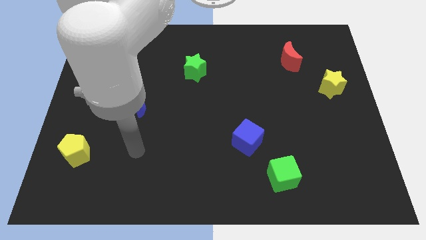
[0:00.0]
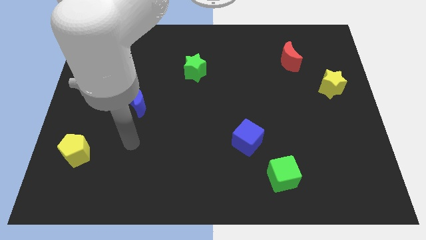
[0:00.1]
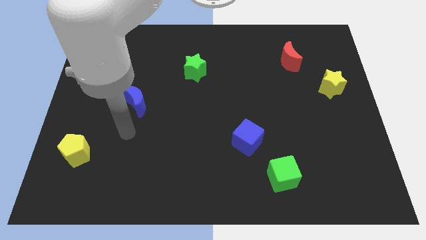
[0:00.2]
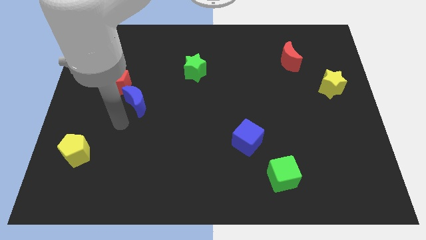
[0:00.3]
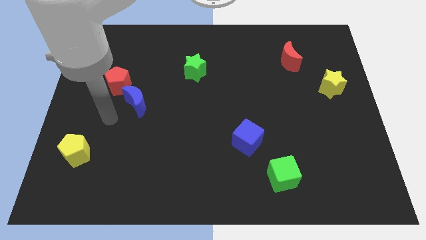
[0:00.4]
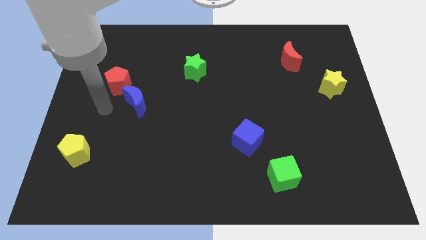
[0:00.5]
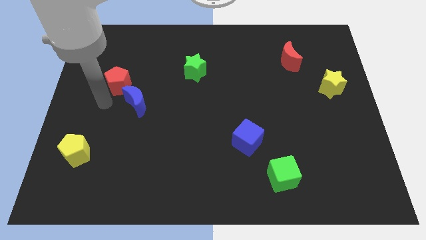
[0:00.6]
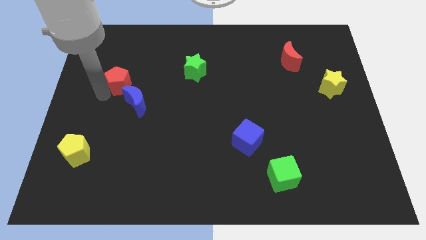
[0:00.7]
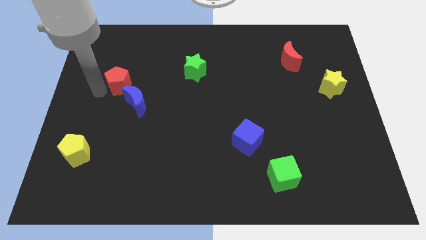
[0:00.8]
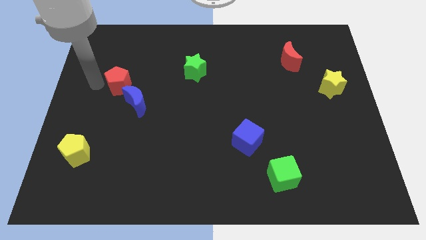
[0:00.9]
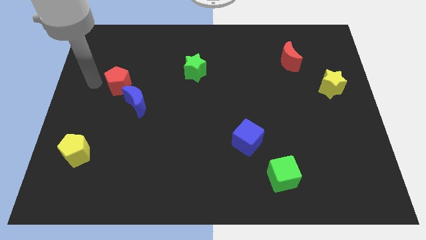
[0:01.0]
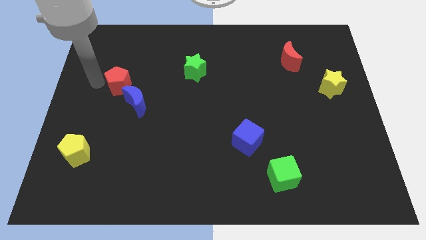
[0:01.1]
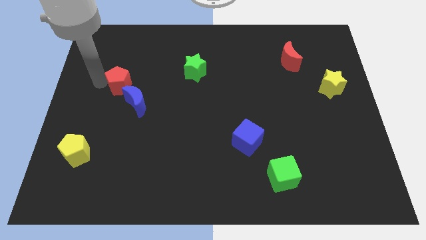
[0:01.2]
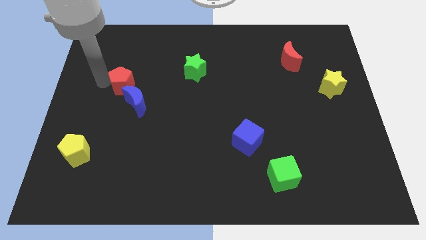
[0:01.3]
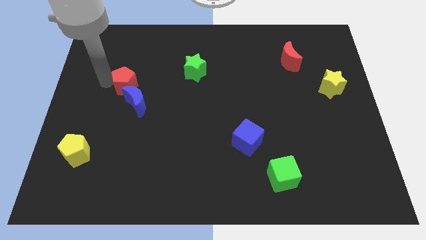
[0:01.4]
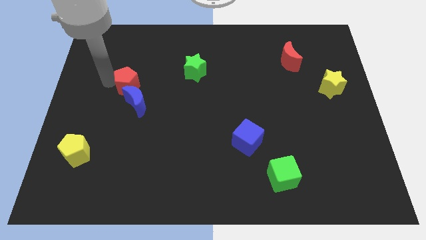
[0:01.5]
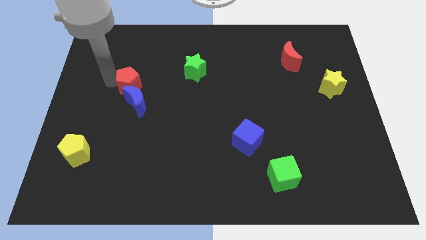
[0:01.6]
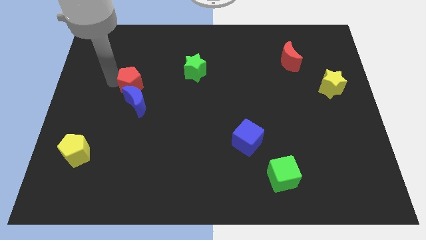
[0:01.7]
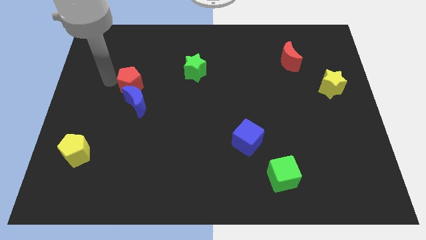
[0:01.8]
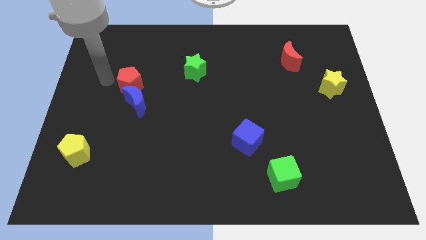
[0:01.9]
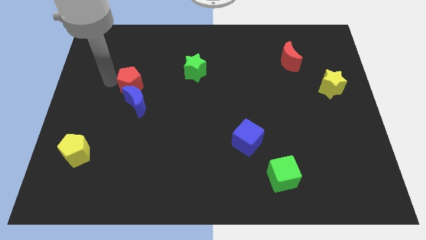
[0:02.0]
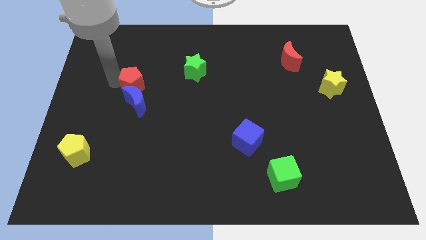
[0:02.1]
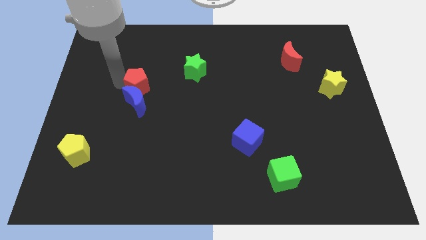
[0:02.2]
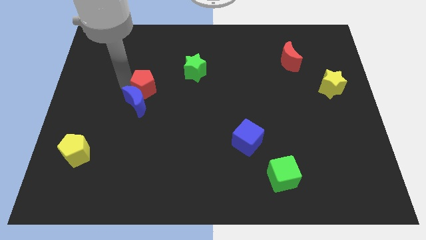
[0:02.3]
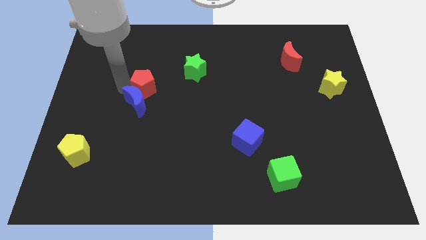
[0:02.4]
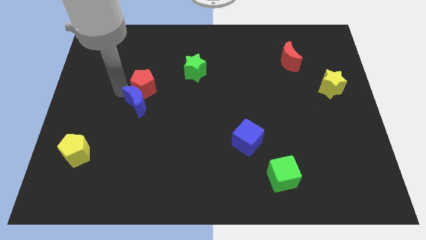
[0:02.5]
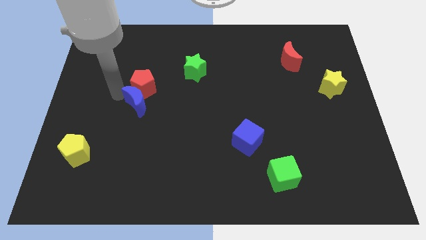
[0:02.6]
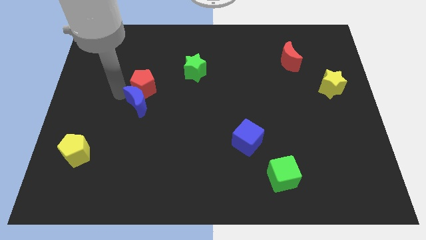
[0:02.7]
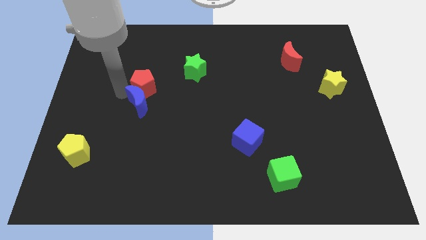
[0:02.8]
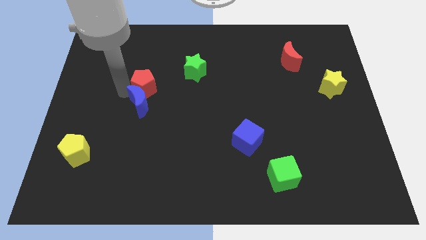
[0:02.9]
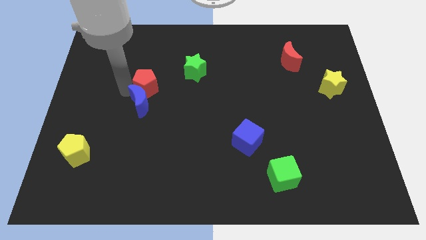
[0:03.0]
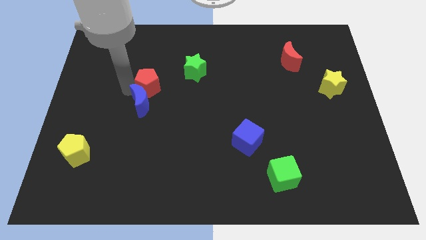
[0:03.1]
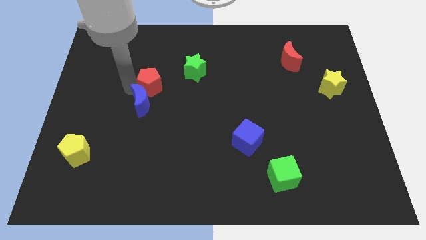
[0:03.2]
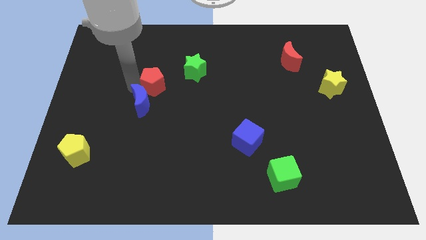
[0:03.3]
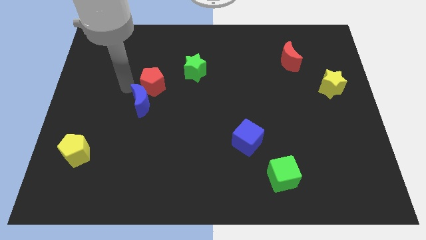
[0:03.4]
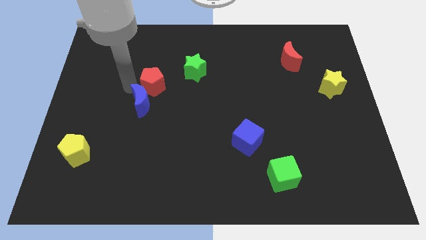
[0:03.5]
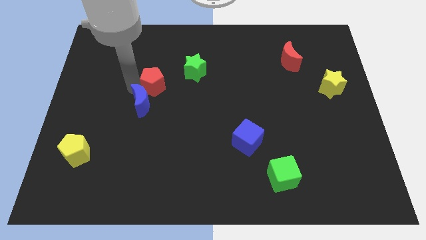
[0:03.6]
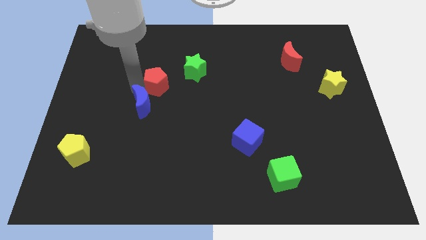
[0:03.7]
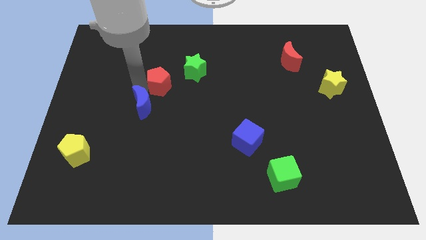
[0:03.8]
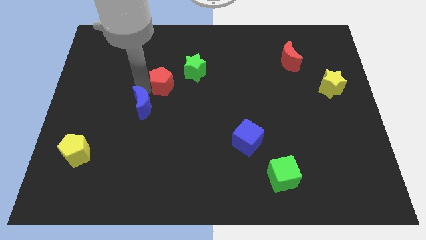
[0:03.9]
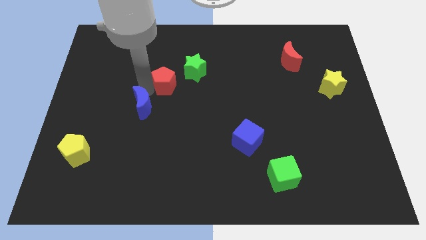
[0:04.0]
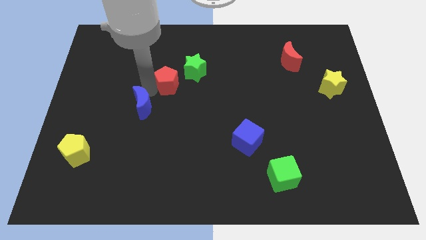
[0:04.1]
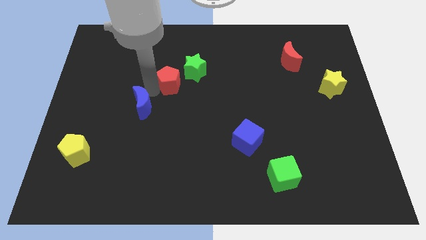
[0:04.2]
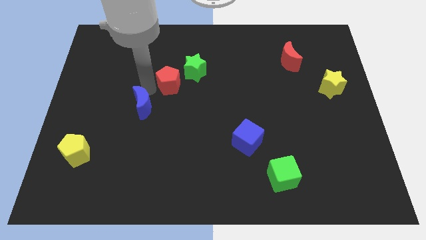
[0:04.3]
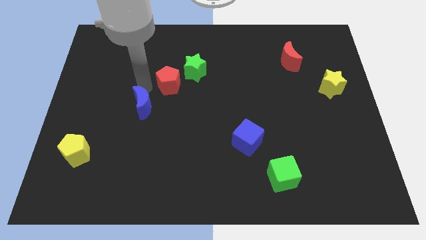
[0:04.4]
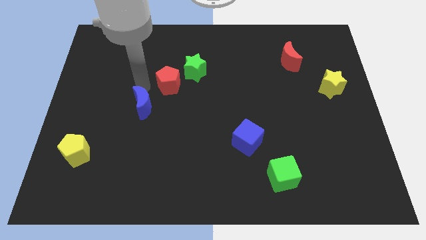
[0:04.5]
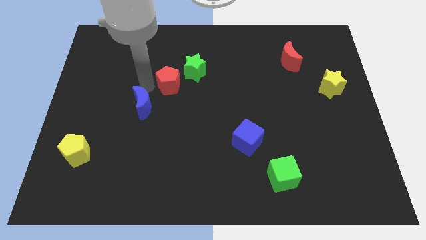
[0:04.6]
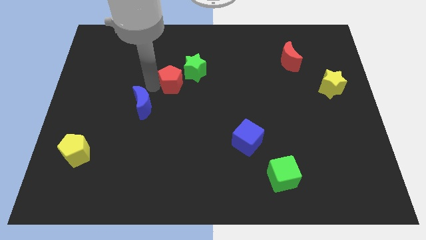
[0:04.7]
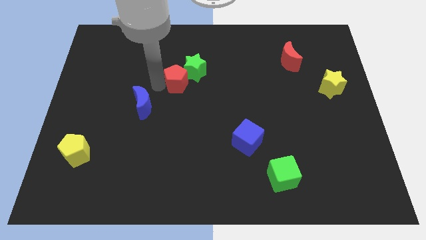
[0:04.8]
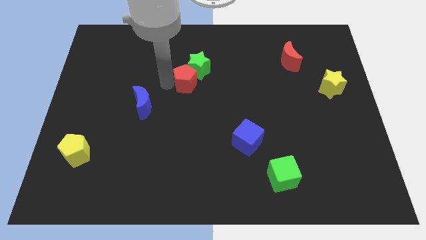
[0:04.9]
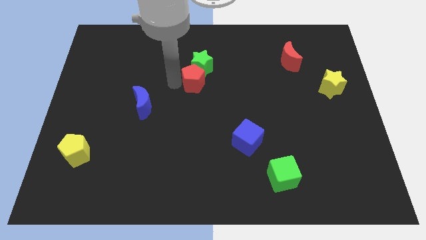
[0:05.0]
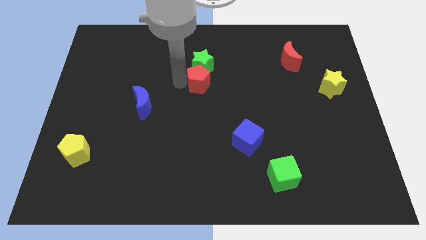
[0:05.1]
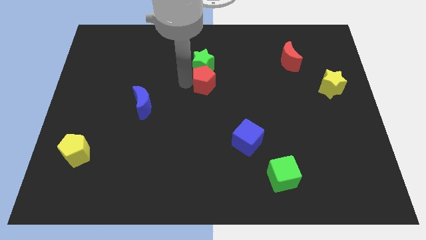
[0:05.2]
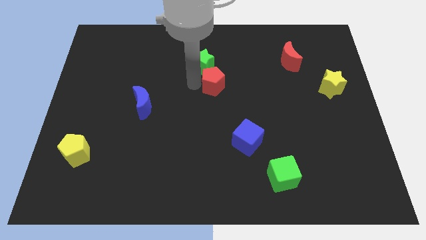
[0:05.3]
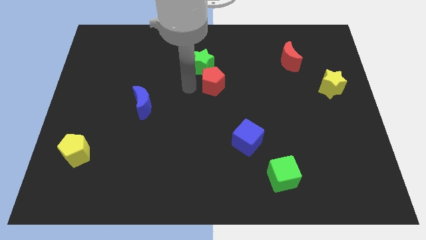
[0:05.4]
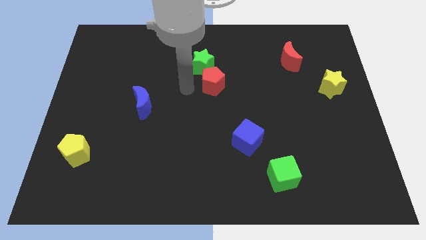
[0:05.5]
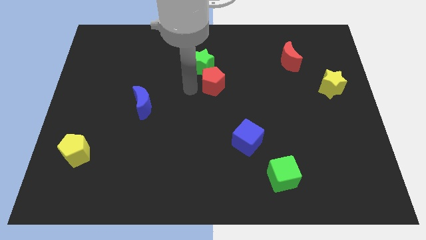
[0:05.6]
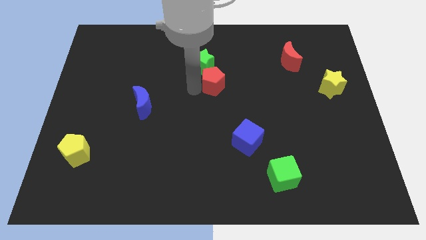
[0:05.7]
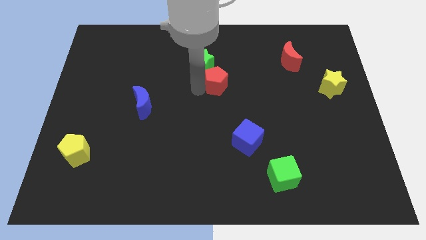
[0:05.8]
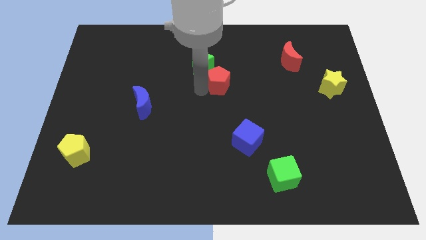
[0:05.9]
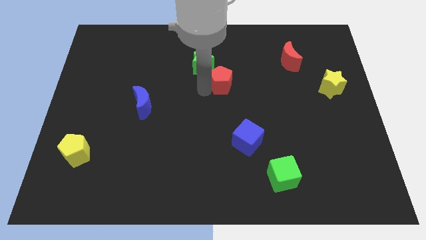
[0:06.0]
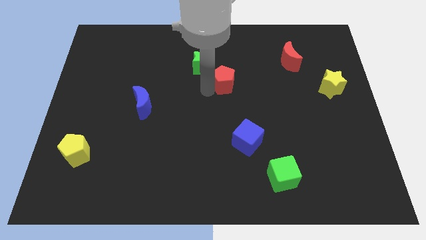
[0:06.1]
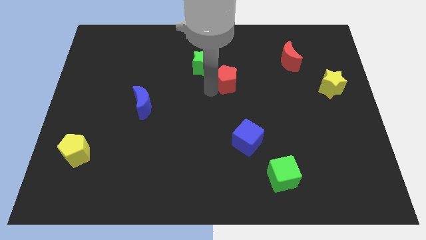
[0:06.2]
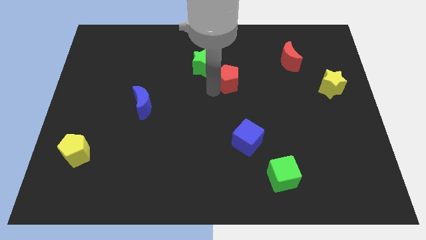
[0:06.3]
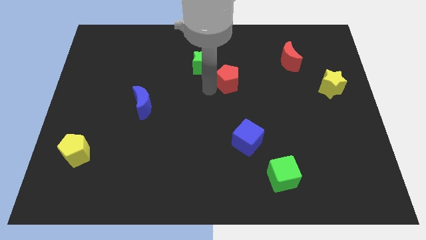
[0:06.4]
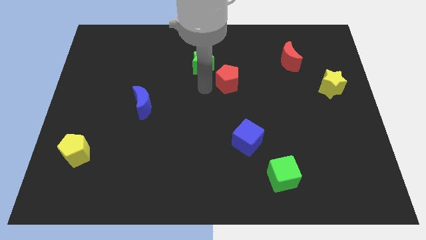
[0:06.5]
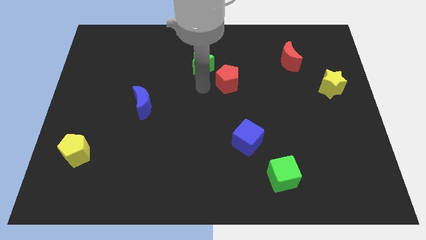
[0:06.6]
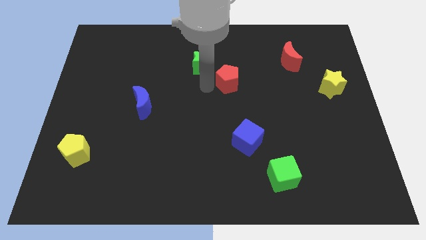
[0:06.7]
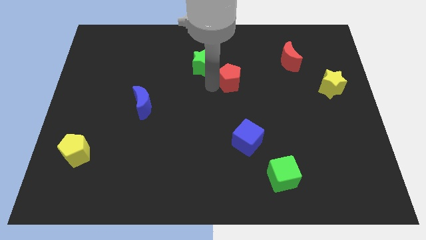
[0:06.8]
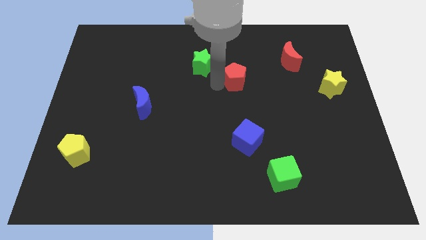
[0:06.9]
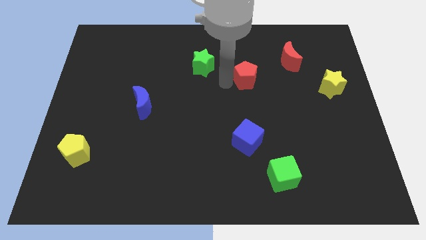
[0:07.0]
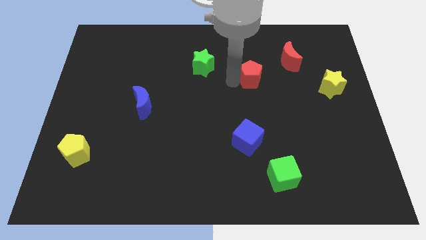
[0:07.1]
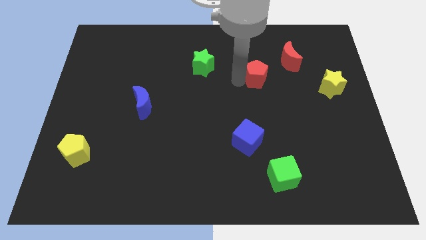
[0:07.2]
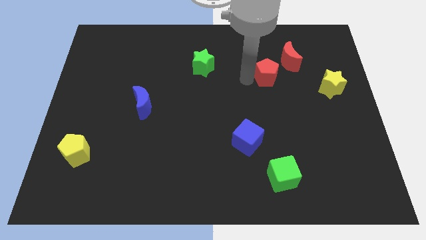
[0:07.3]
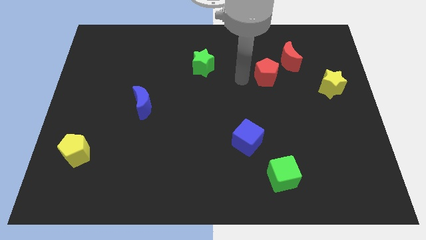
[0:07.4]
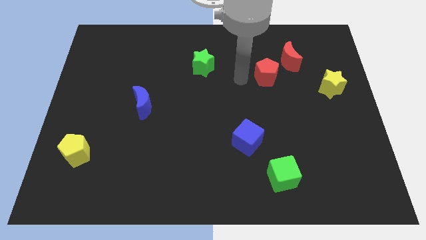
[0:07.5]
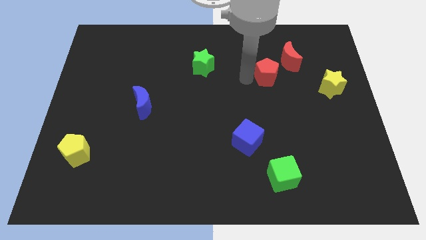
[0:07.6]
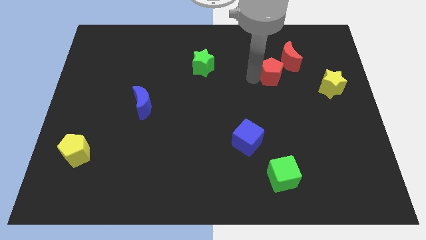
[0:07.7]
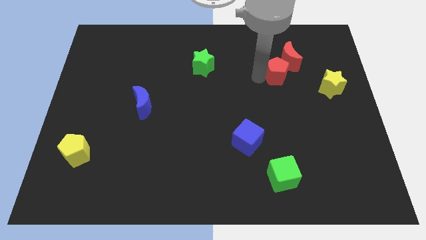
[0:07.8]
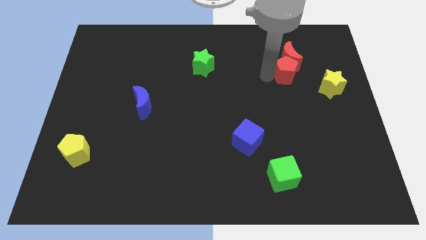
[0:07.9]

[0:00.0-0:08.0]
push the red pentagon to the bottom right side of the red moon
